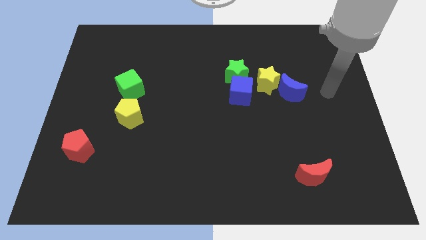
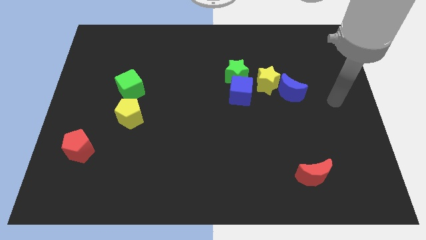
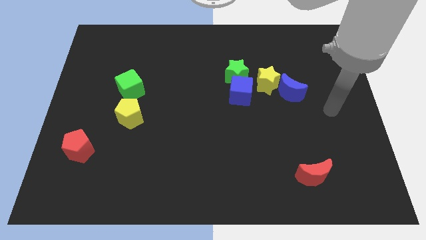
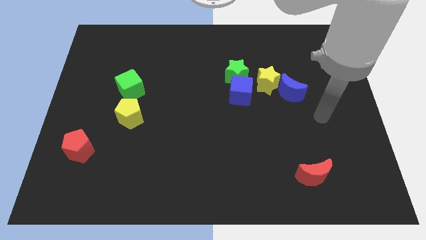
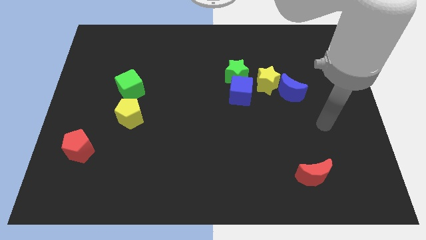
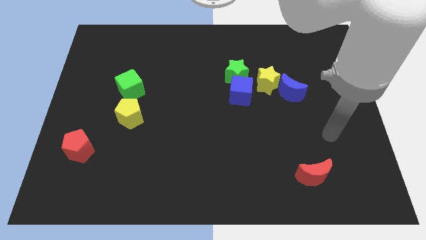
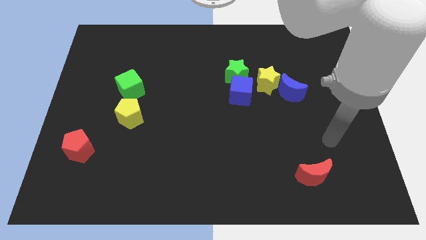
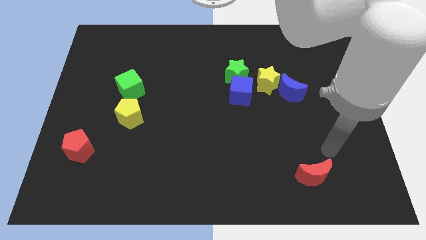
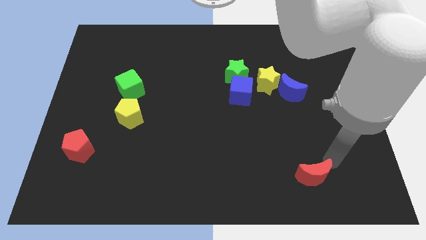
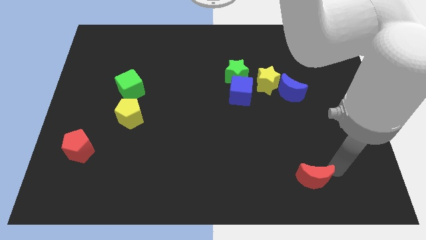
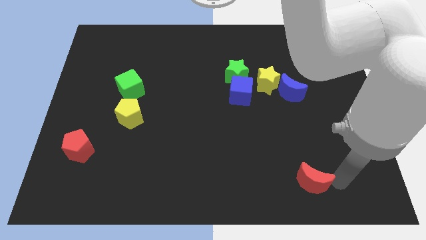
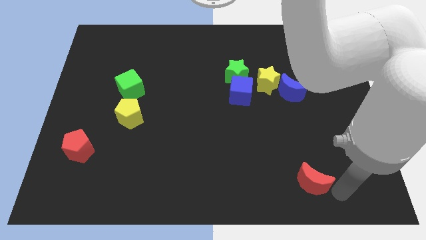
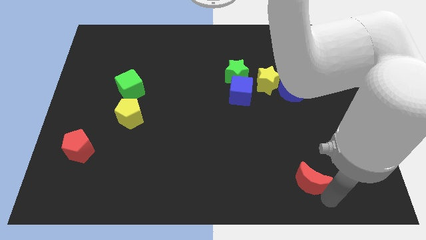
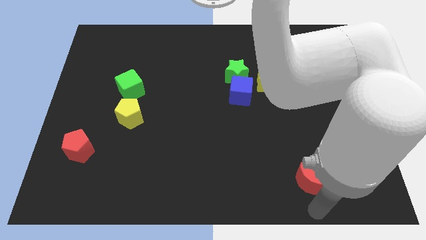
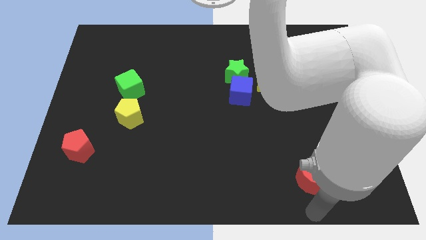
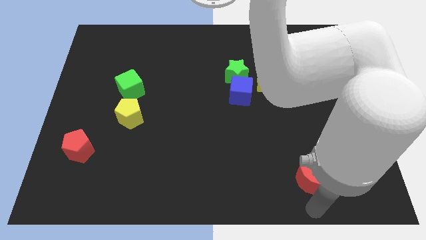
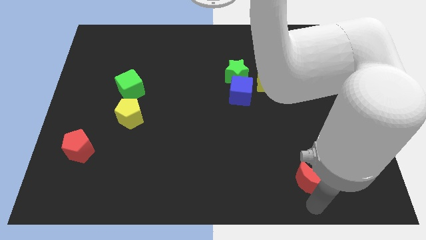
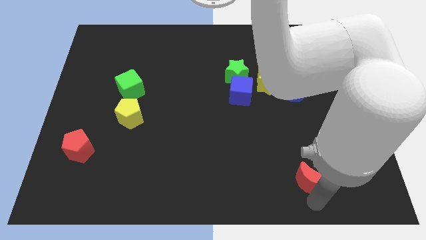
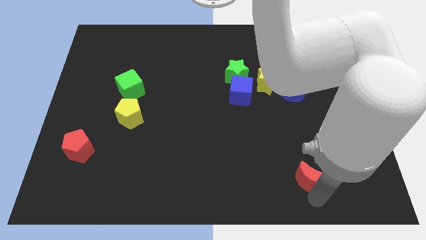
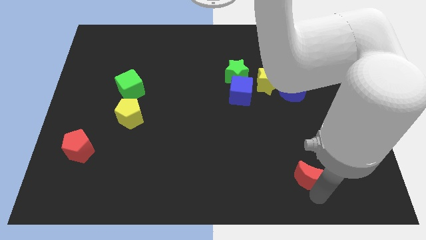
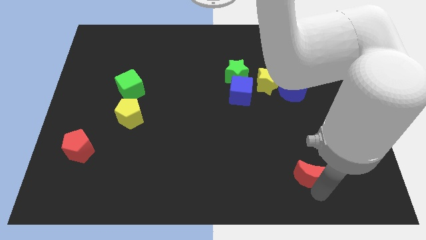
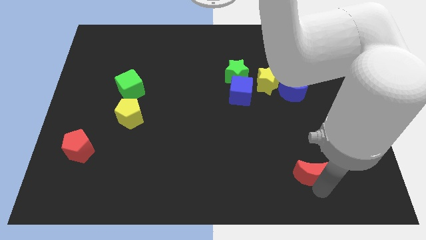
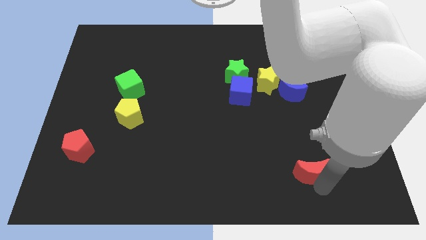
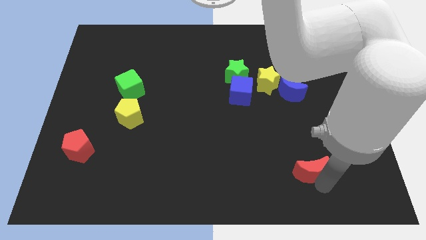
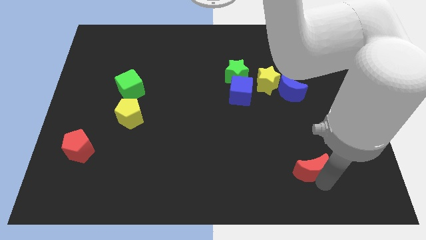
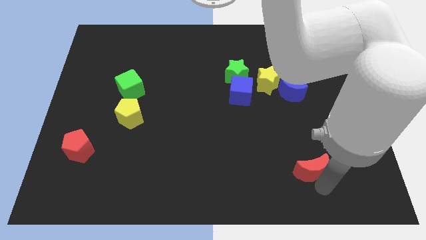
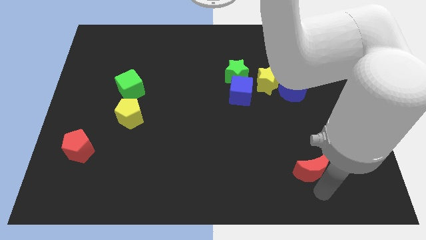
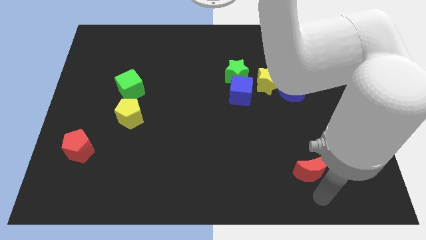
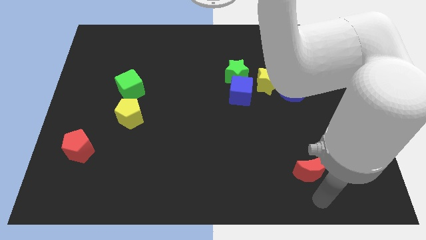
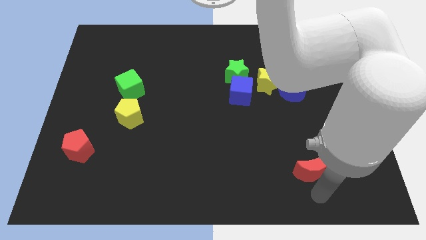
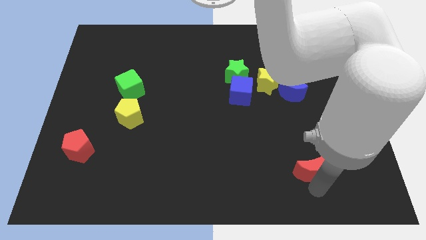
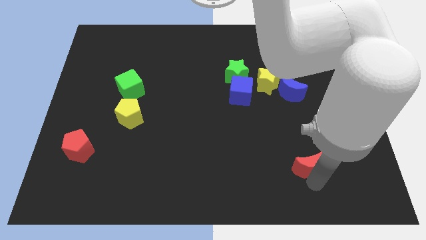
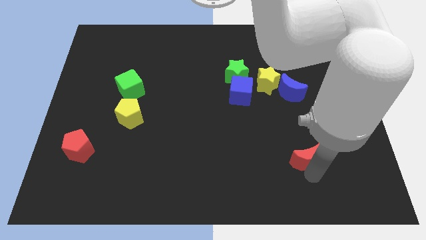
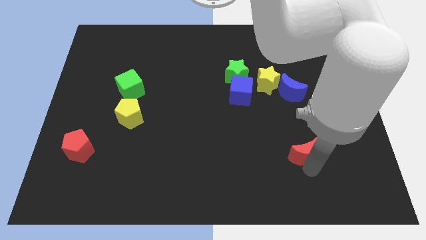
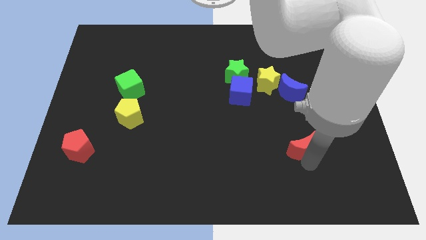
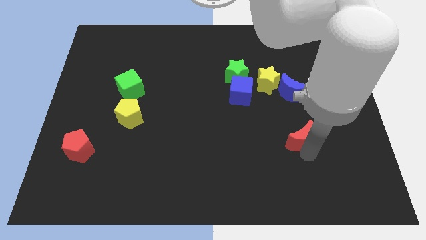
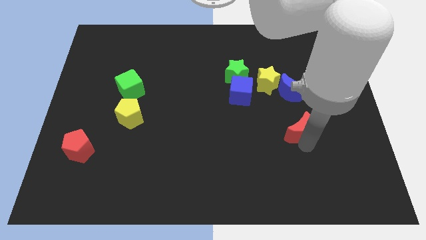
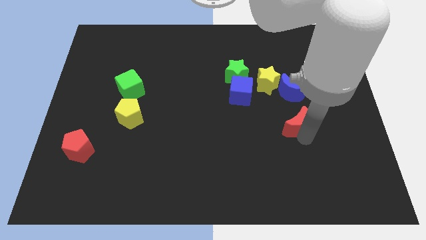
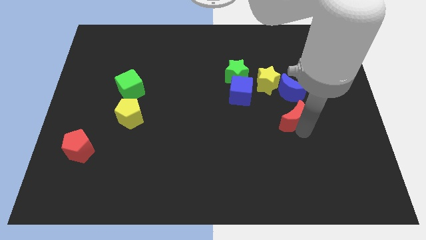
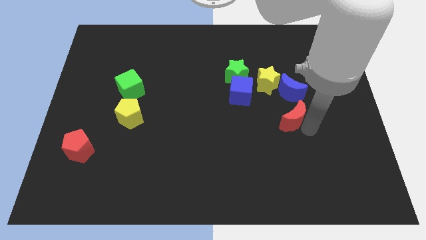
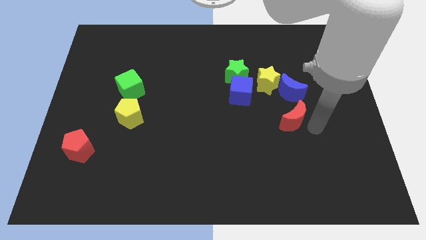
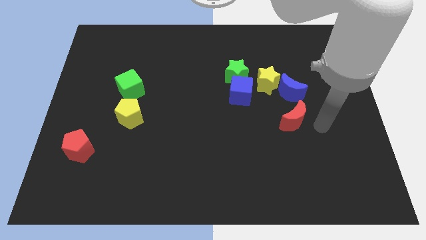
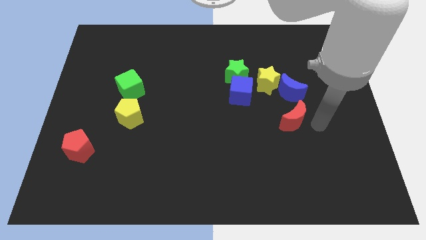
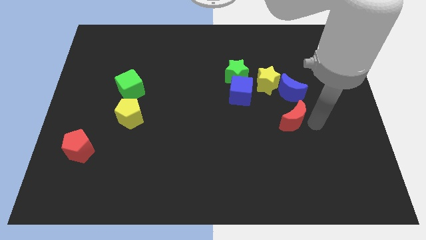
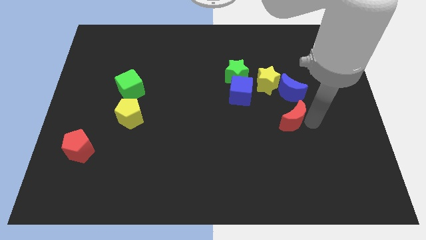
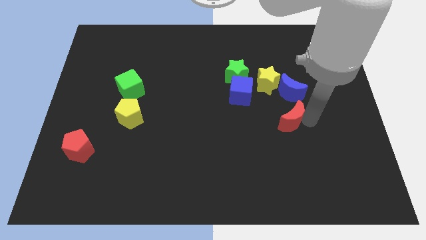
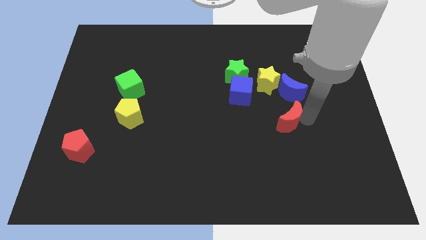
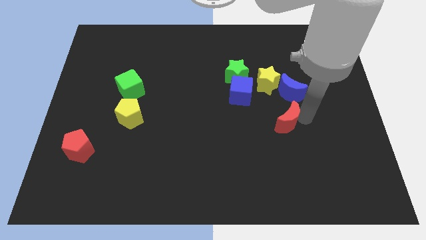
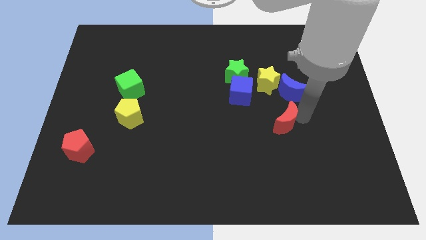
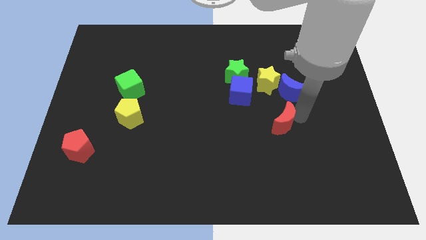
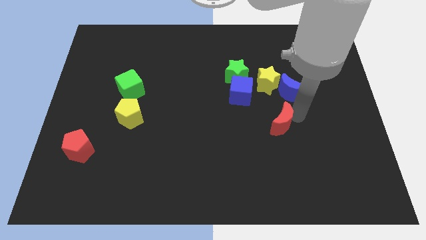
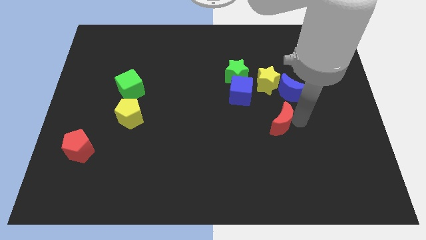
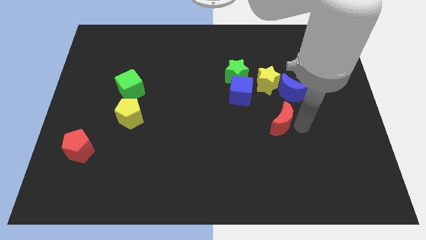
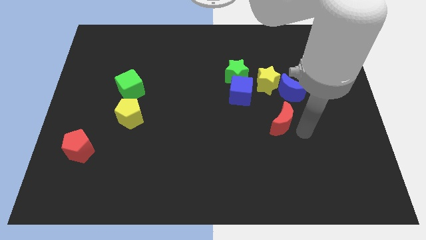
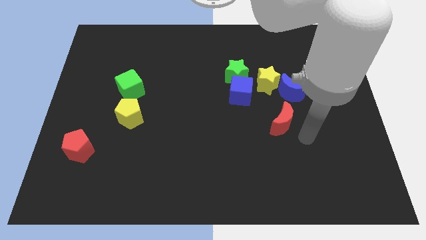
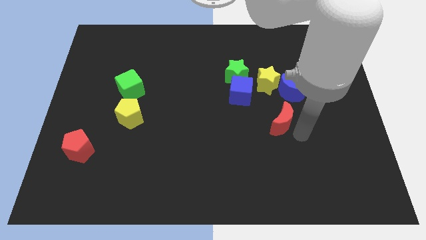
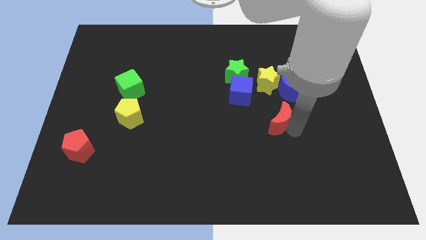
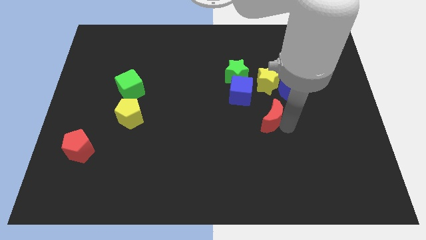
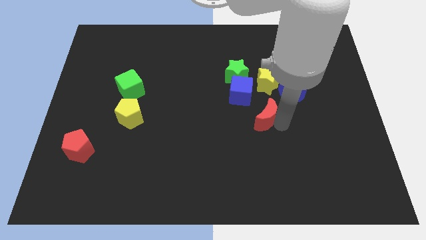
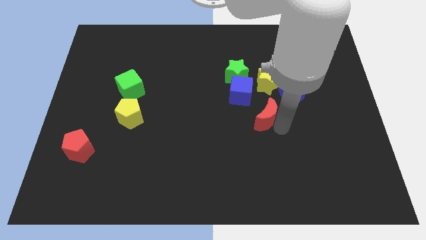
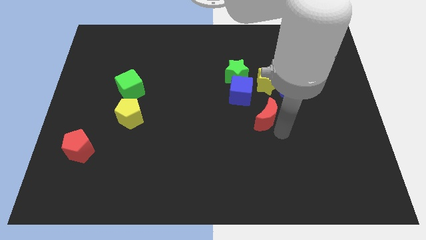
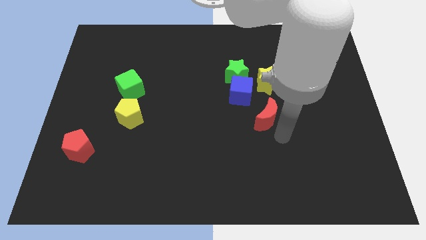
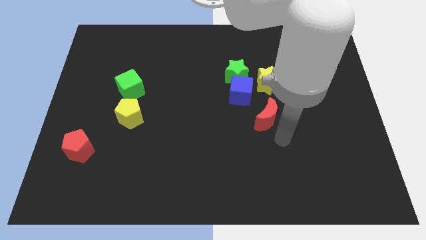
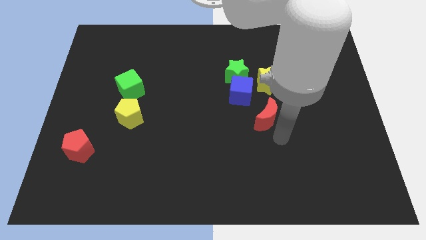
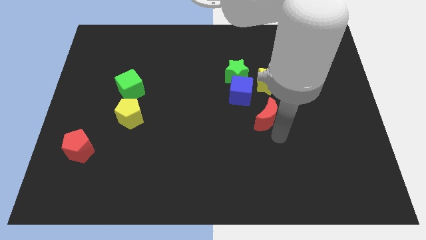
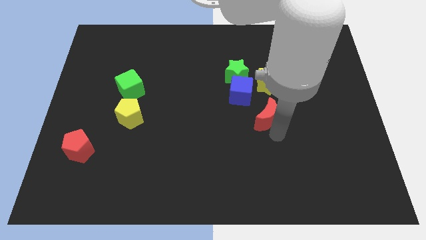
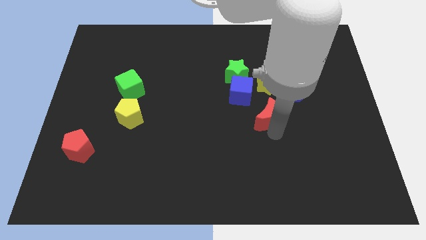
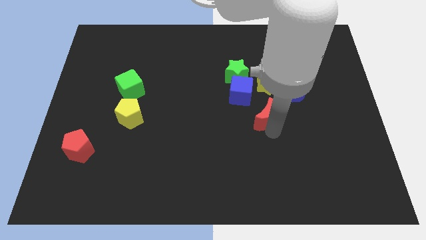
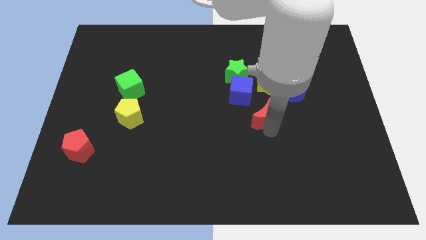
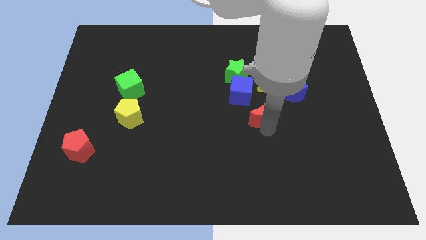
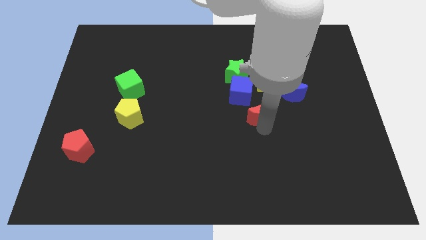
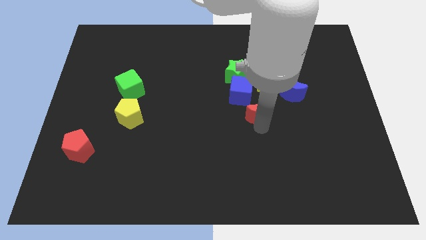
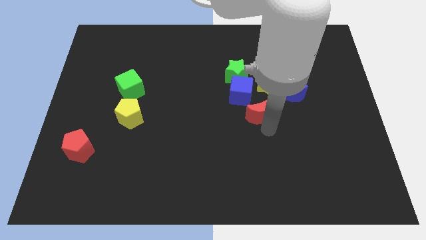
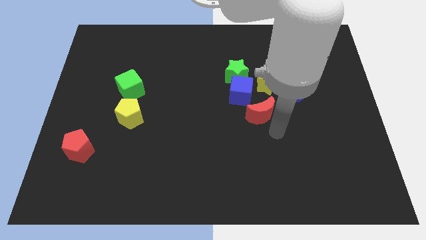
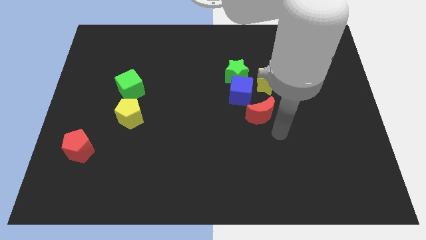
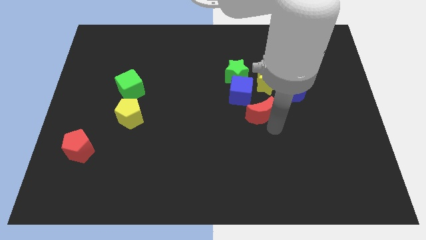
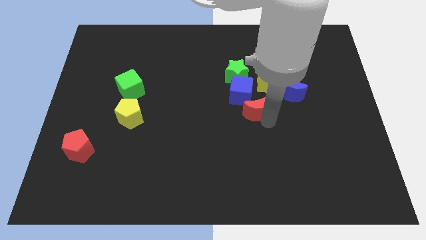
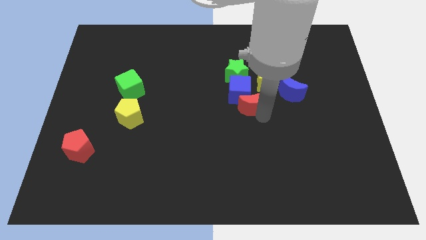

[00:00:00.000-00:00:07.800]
push the red moon towards the blue cube
